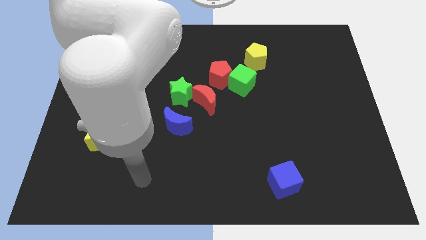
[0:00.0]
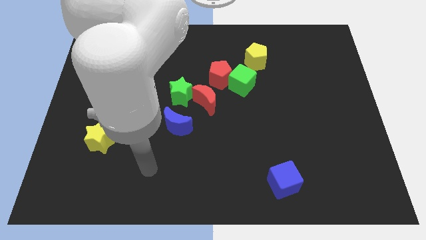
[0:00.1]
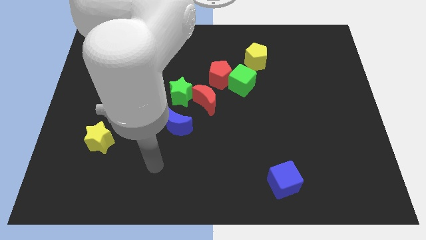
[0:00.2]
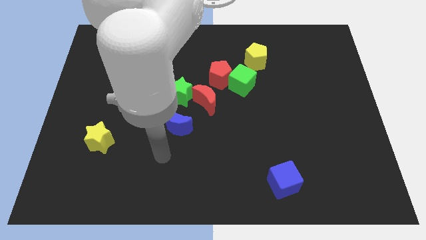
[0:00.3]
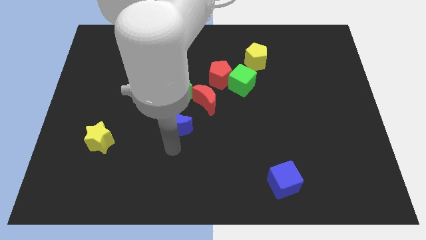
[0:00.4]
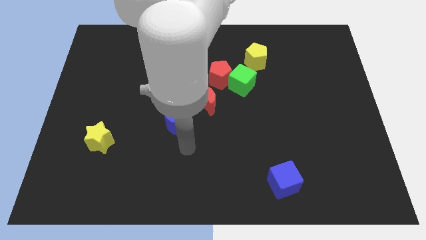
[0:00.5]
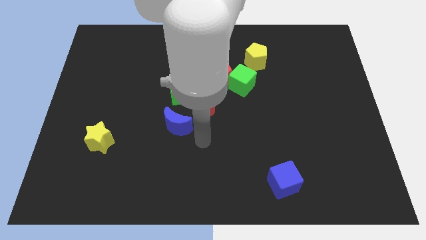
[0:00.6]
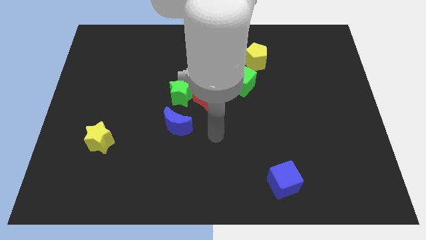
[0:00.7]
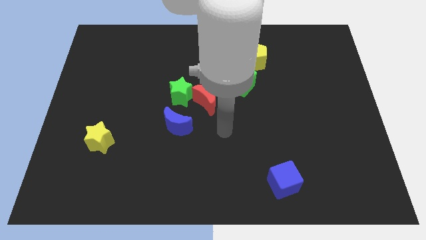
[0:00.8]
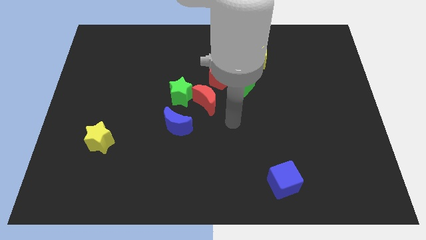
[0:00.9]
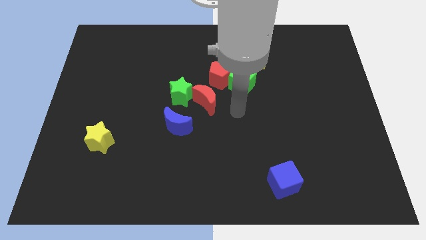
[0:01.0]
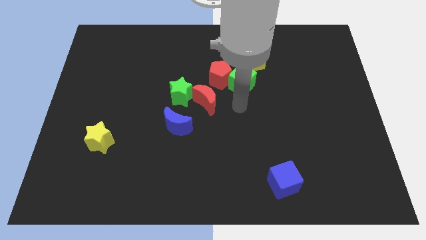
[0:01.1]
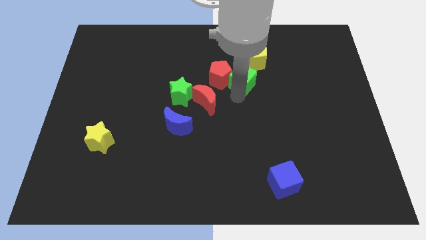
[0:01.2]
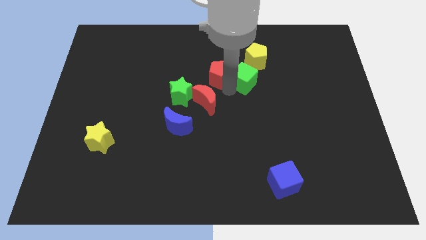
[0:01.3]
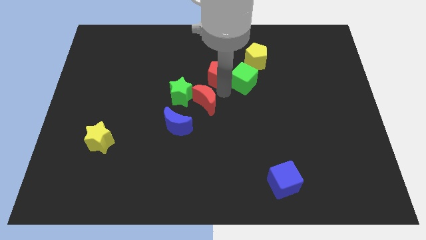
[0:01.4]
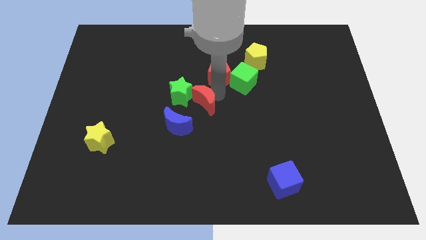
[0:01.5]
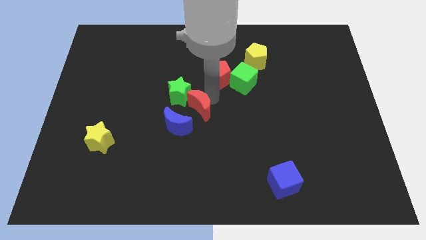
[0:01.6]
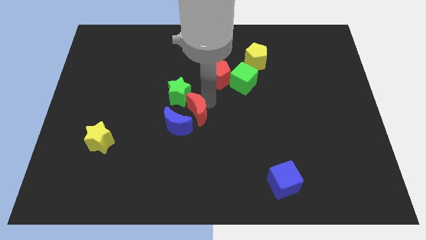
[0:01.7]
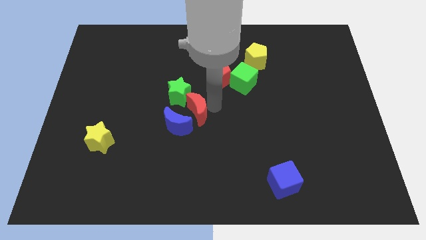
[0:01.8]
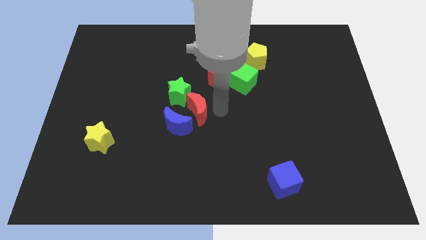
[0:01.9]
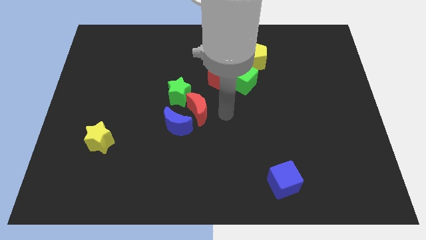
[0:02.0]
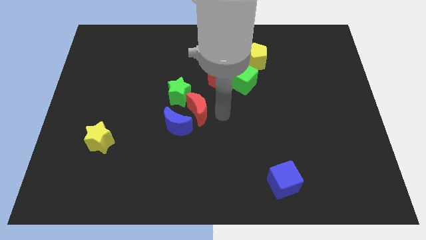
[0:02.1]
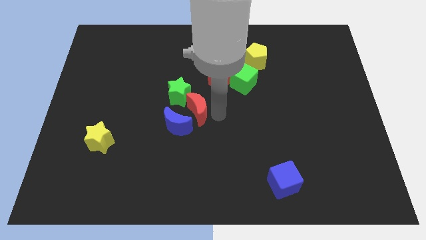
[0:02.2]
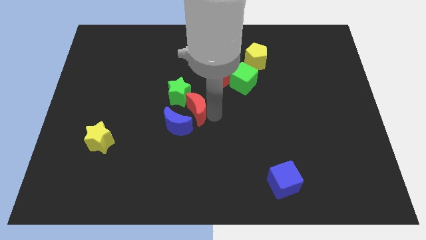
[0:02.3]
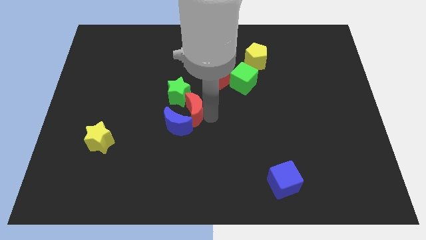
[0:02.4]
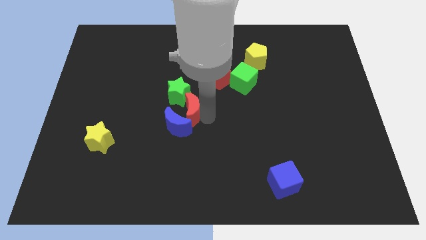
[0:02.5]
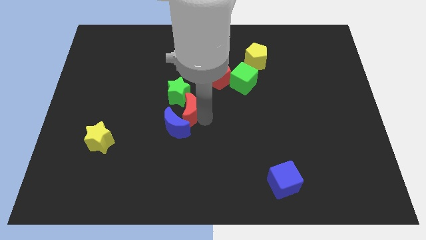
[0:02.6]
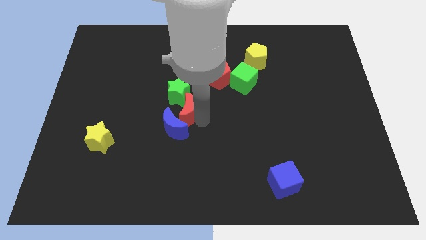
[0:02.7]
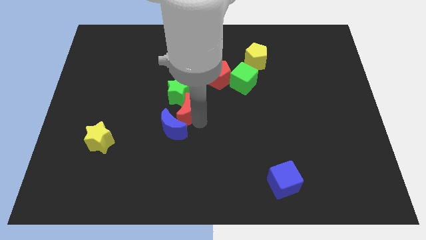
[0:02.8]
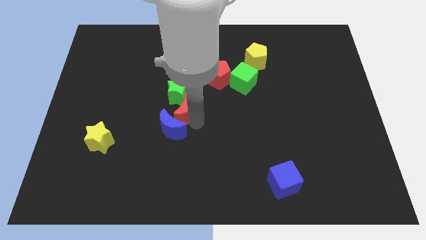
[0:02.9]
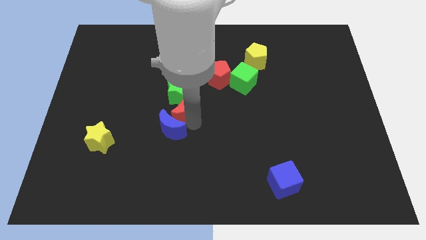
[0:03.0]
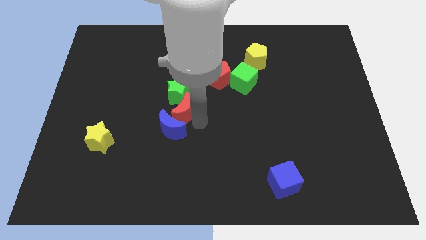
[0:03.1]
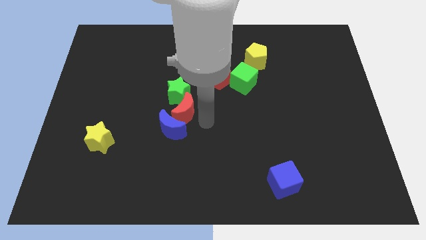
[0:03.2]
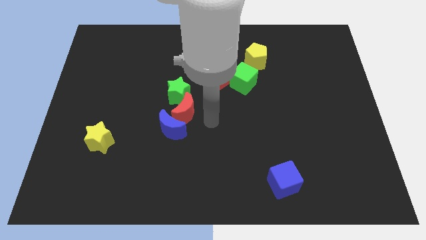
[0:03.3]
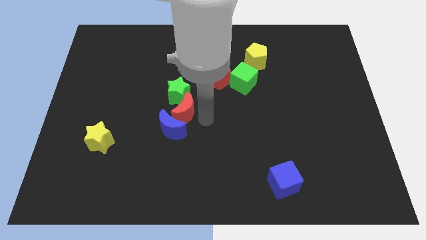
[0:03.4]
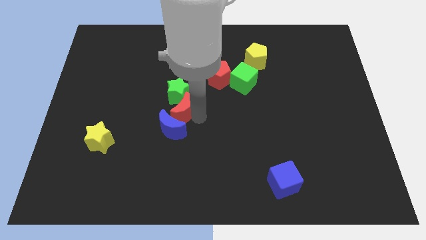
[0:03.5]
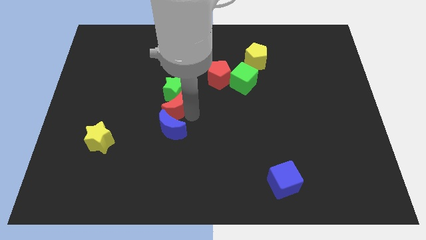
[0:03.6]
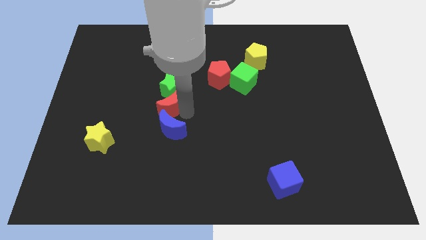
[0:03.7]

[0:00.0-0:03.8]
slightly slide the red moon to the left

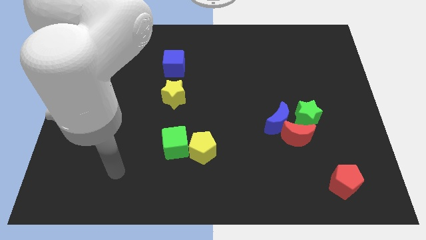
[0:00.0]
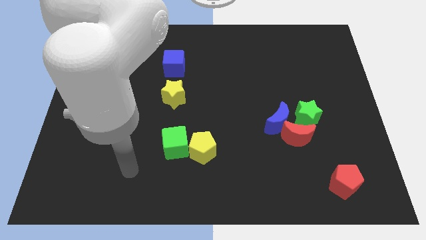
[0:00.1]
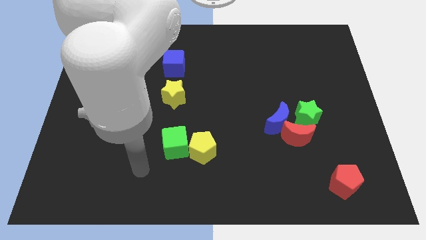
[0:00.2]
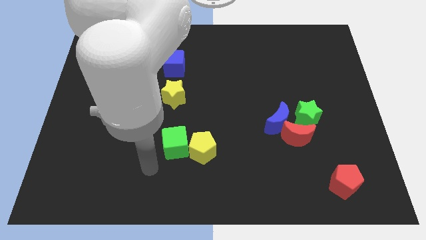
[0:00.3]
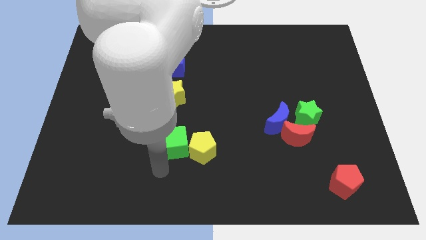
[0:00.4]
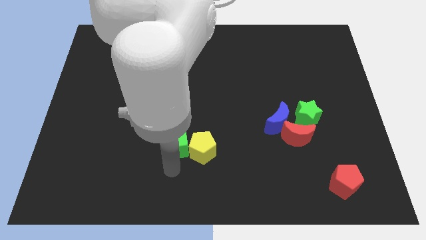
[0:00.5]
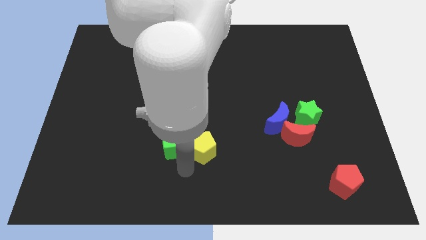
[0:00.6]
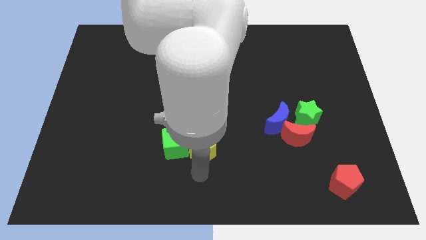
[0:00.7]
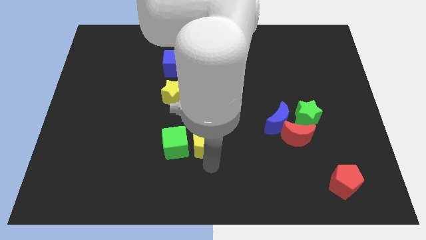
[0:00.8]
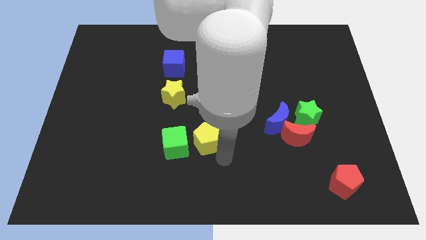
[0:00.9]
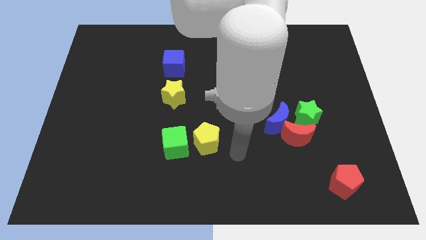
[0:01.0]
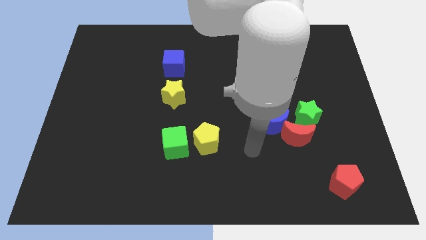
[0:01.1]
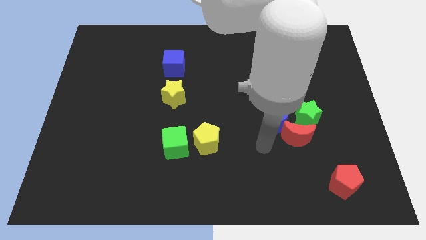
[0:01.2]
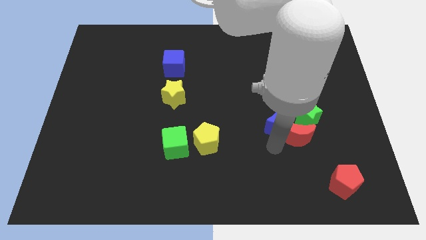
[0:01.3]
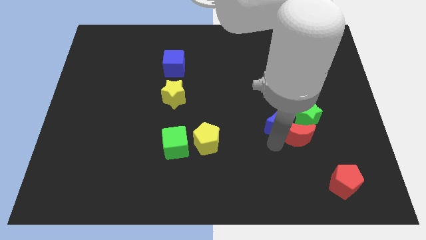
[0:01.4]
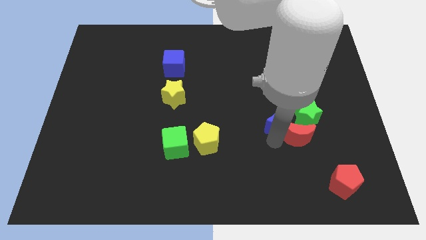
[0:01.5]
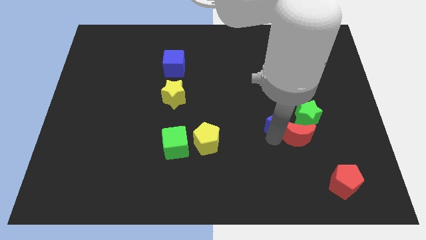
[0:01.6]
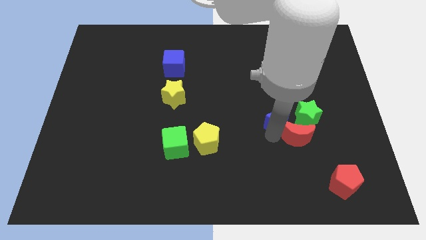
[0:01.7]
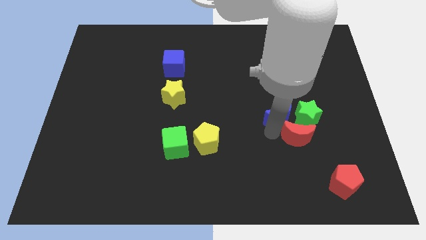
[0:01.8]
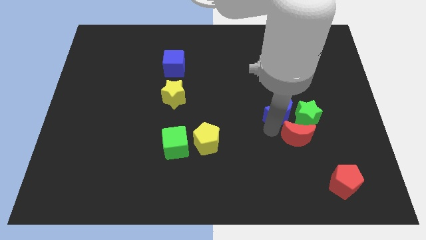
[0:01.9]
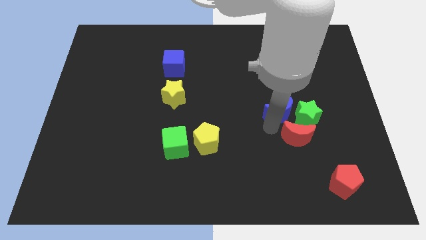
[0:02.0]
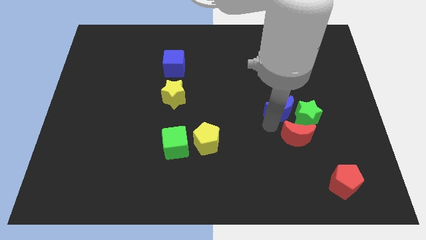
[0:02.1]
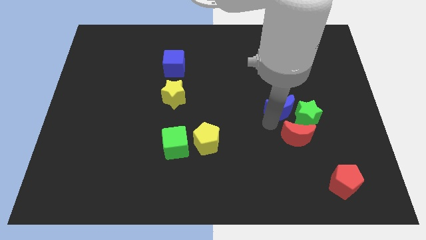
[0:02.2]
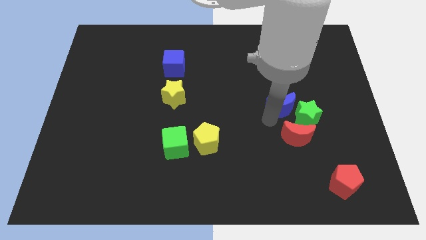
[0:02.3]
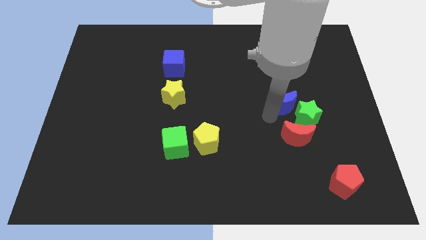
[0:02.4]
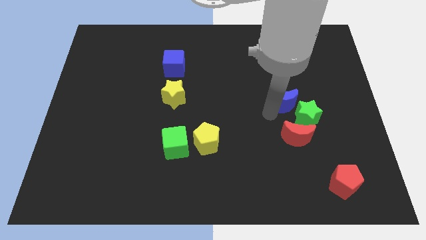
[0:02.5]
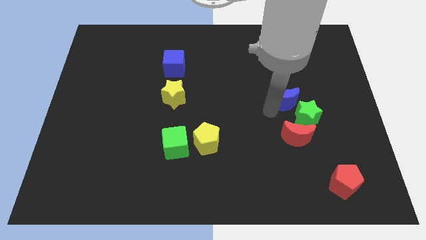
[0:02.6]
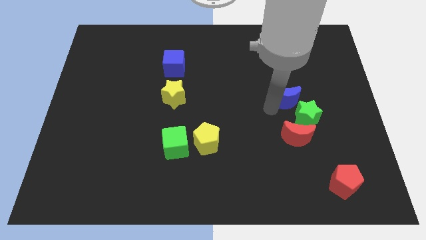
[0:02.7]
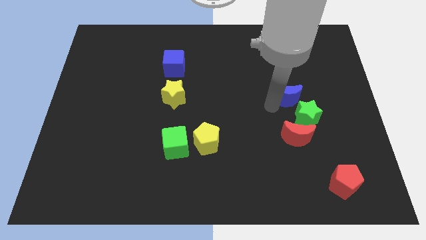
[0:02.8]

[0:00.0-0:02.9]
push the blue moon upwards and to the right a little

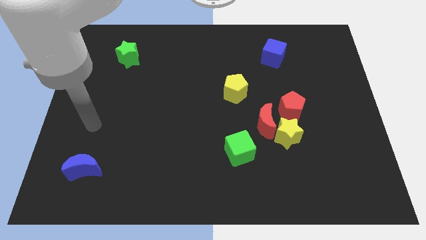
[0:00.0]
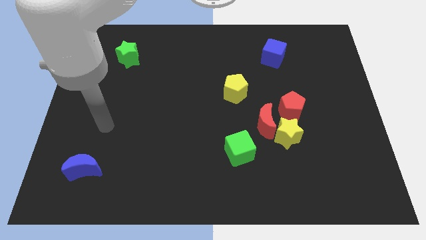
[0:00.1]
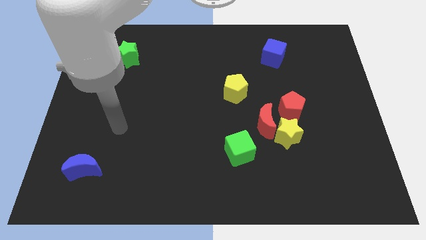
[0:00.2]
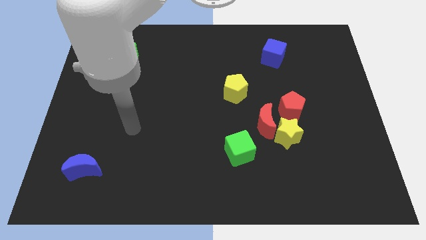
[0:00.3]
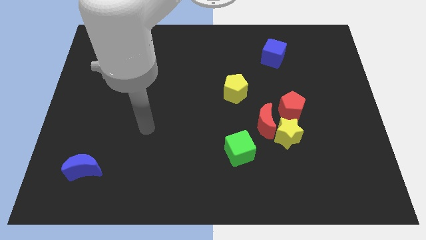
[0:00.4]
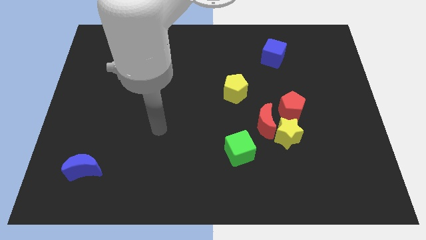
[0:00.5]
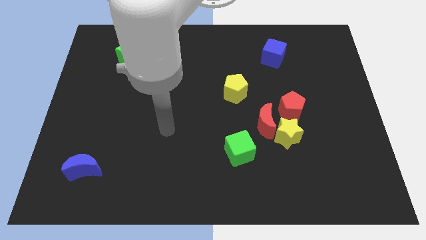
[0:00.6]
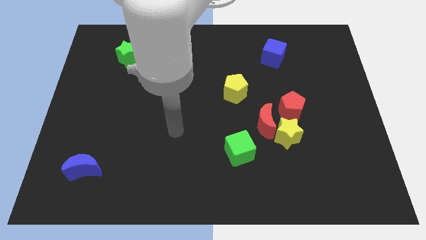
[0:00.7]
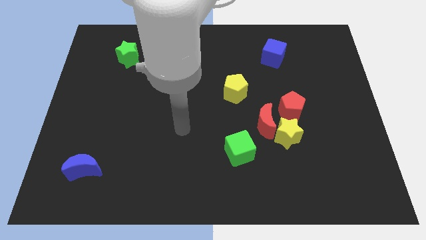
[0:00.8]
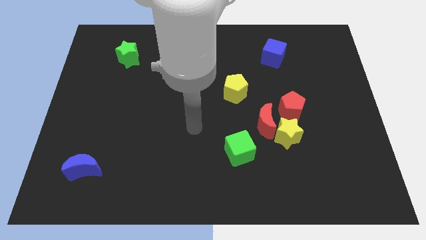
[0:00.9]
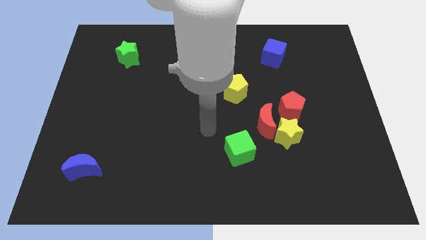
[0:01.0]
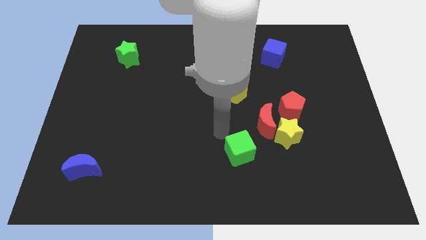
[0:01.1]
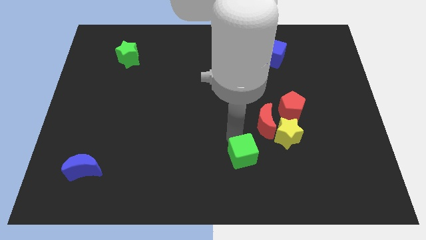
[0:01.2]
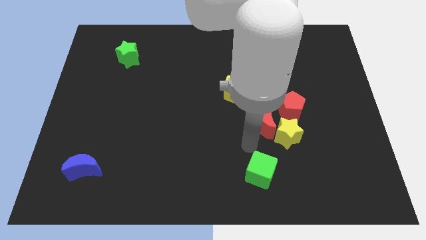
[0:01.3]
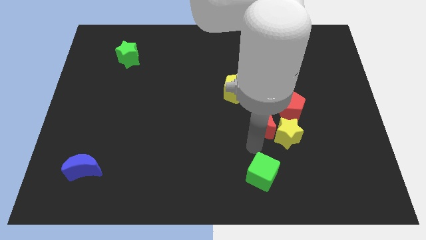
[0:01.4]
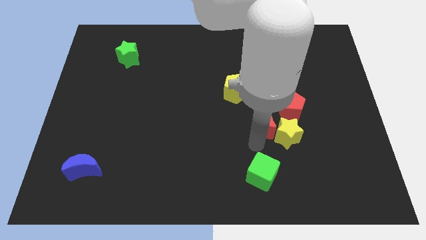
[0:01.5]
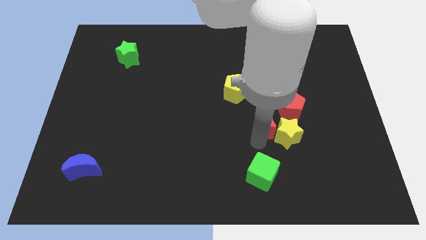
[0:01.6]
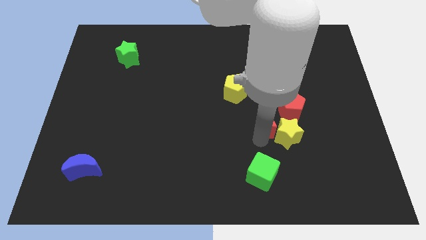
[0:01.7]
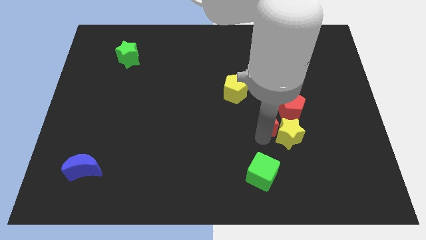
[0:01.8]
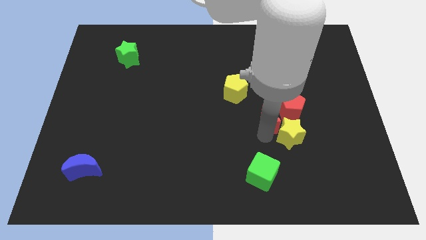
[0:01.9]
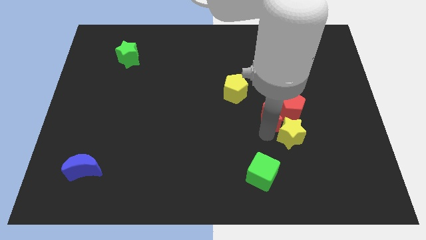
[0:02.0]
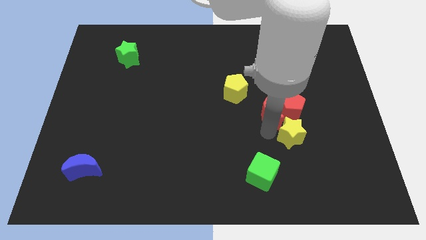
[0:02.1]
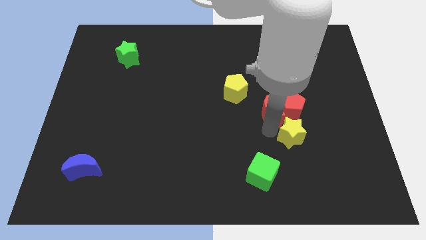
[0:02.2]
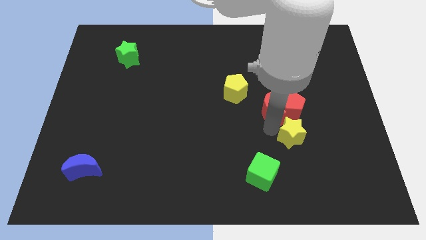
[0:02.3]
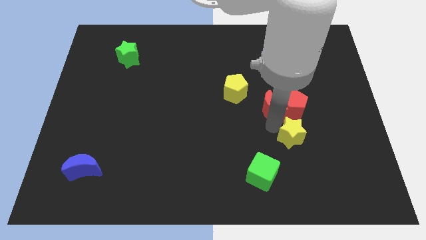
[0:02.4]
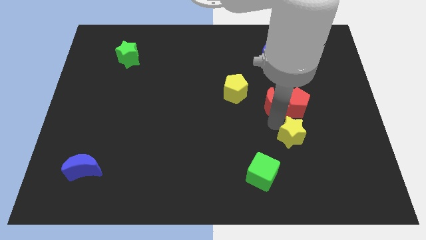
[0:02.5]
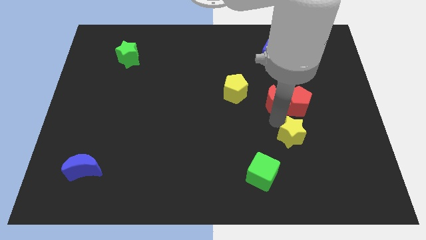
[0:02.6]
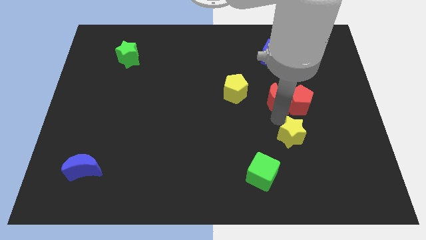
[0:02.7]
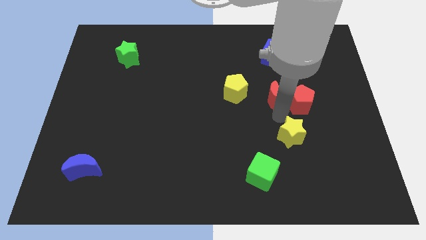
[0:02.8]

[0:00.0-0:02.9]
slide the red moon a bit up and to the right
